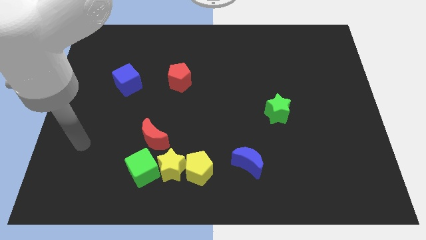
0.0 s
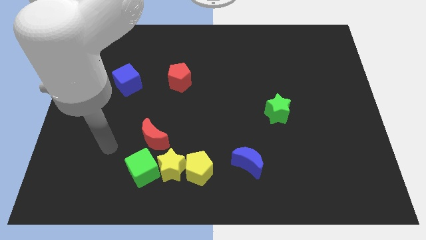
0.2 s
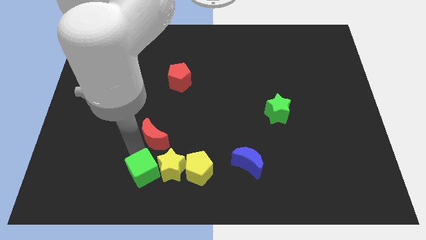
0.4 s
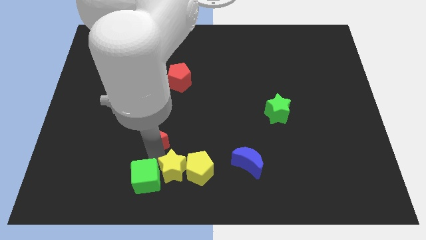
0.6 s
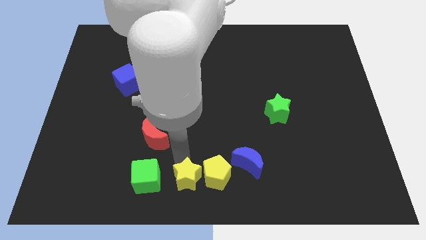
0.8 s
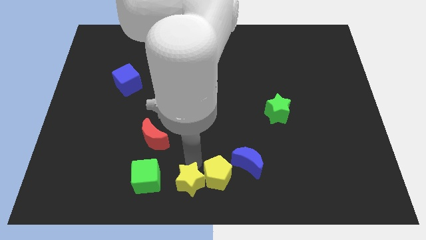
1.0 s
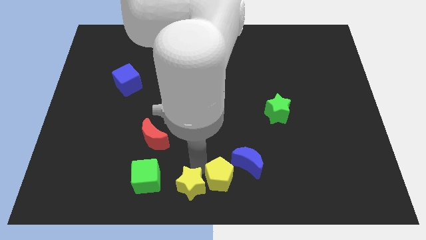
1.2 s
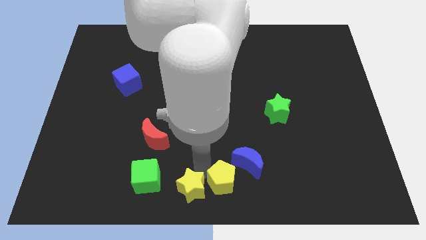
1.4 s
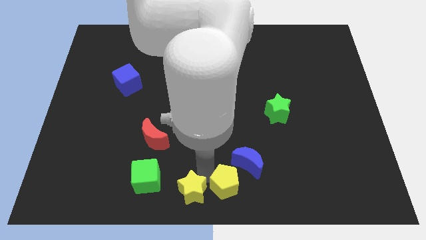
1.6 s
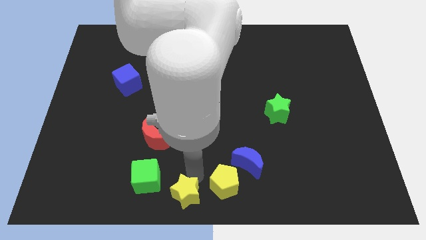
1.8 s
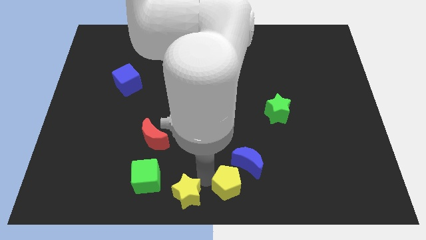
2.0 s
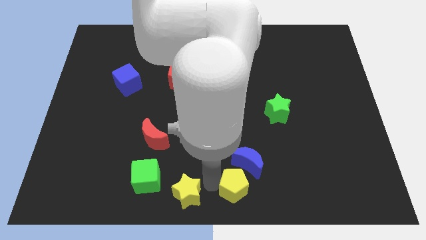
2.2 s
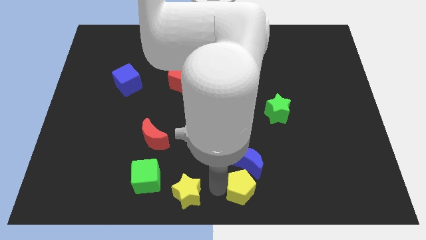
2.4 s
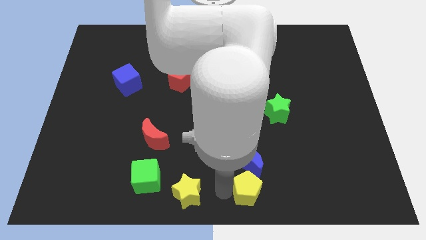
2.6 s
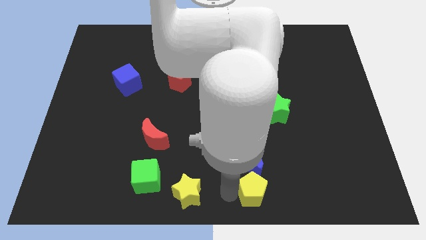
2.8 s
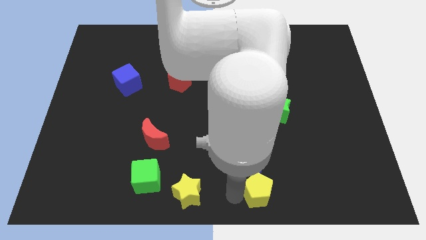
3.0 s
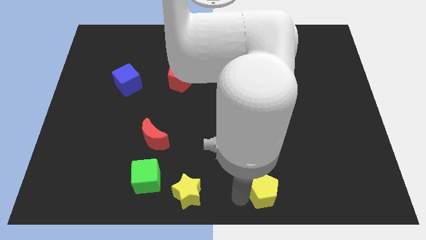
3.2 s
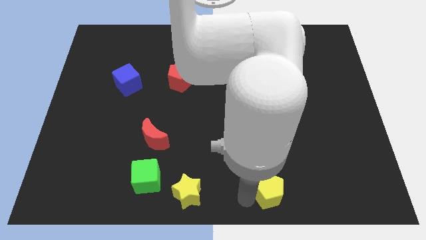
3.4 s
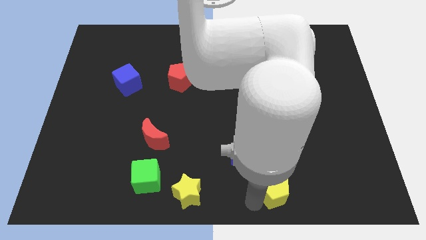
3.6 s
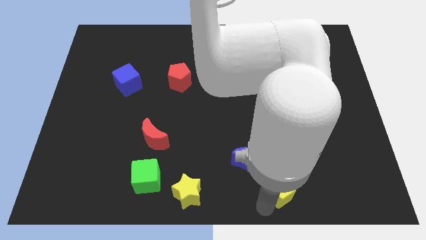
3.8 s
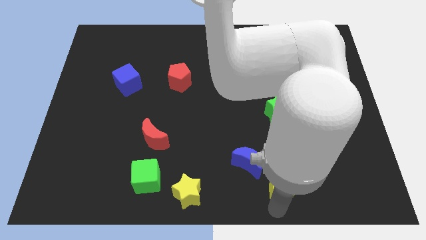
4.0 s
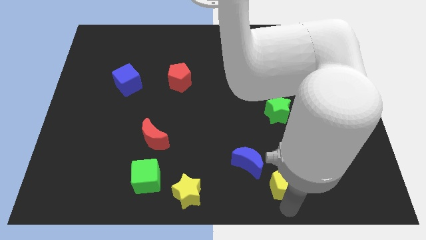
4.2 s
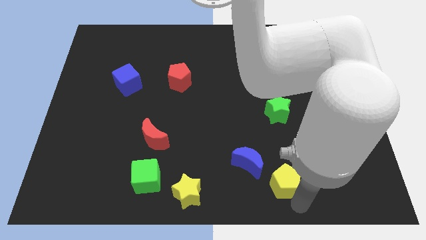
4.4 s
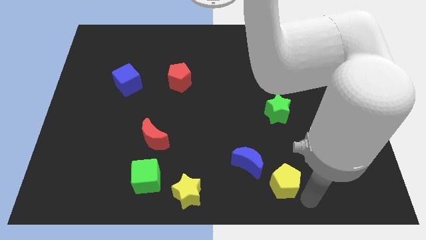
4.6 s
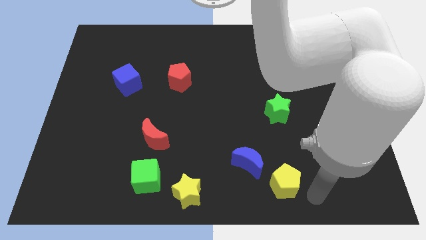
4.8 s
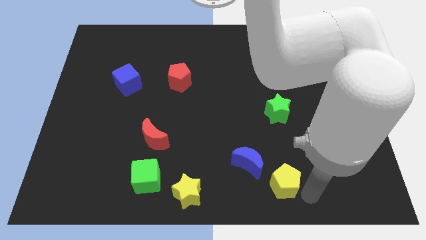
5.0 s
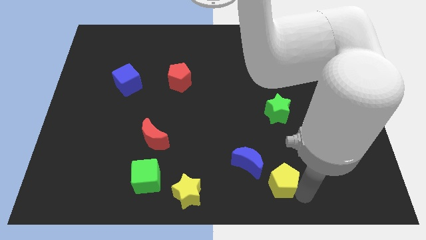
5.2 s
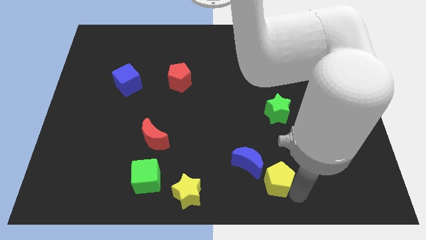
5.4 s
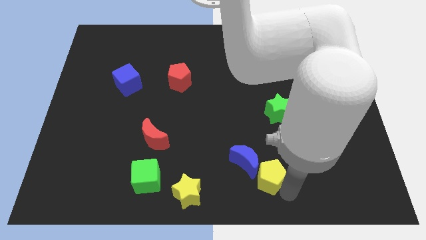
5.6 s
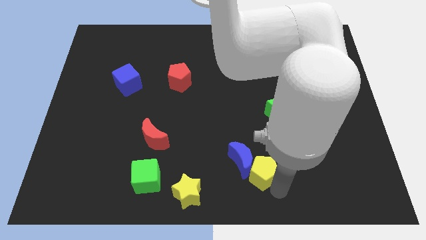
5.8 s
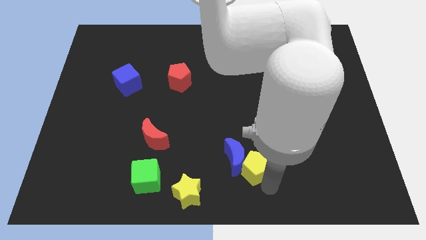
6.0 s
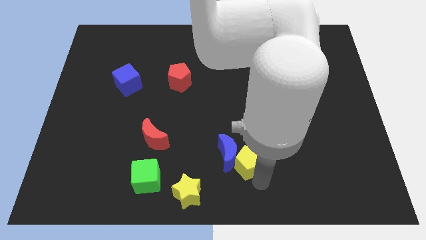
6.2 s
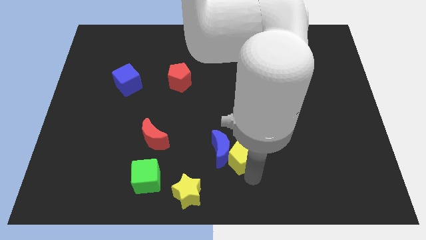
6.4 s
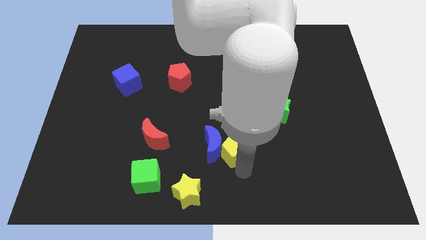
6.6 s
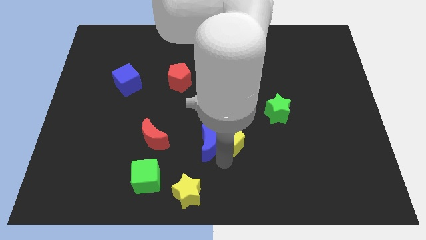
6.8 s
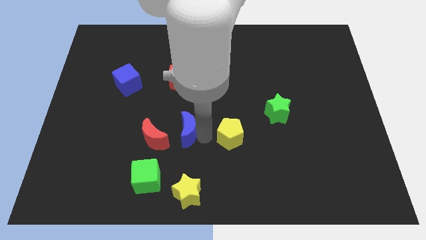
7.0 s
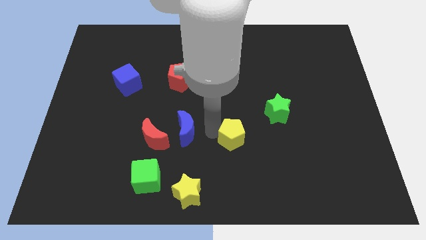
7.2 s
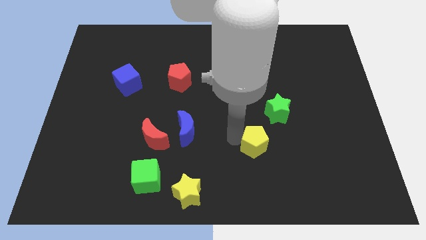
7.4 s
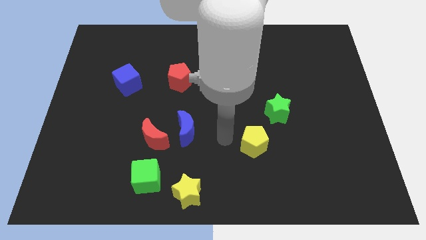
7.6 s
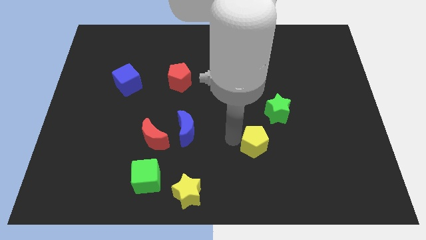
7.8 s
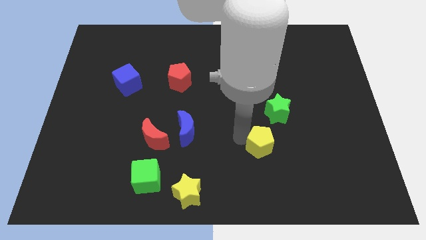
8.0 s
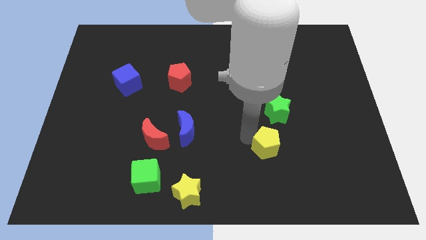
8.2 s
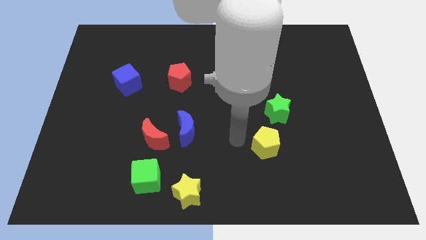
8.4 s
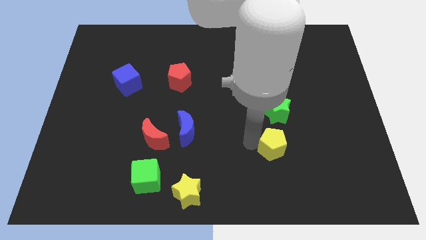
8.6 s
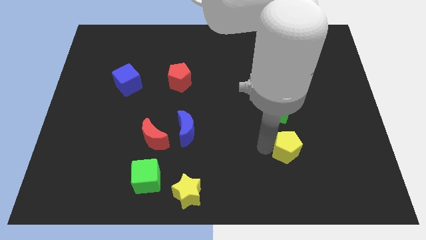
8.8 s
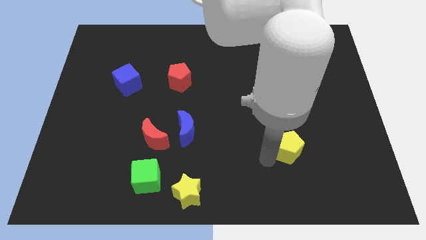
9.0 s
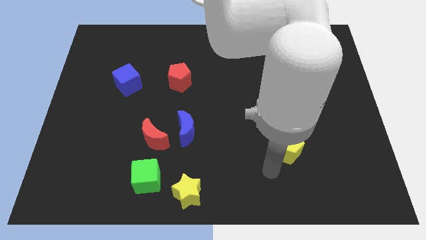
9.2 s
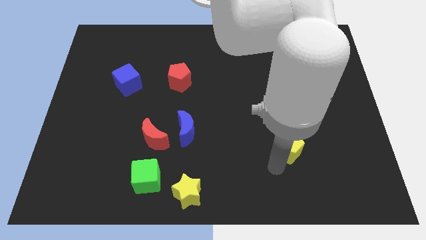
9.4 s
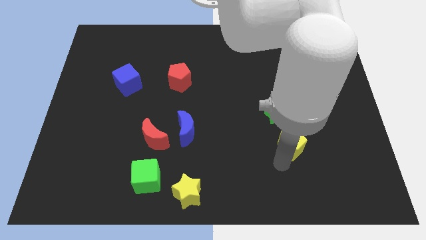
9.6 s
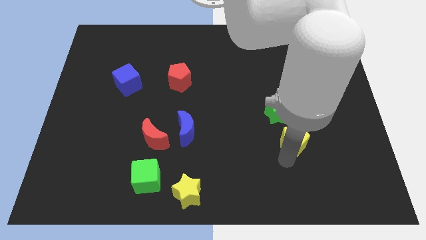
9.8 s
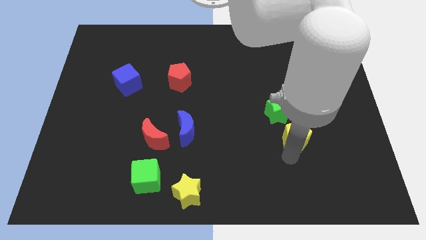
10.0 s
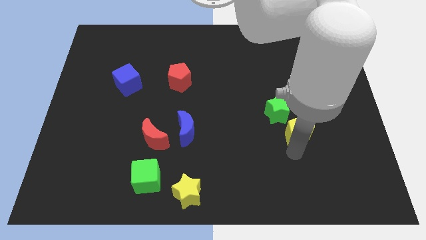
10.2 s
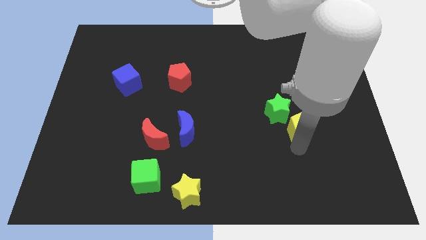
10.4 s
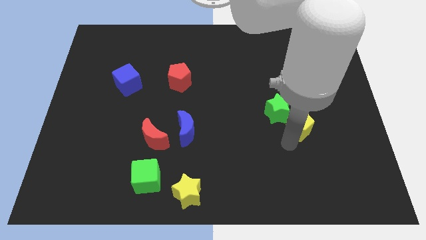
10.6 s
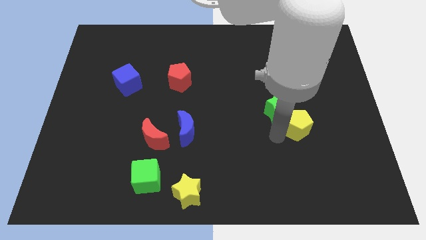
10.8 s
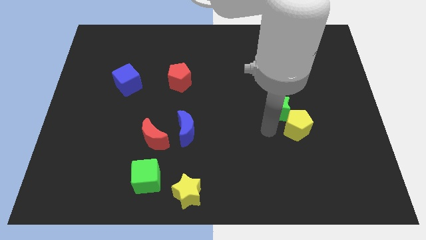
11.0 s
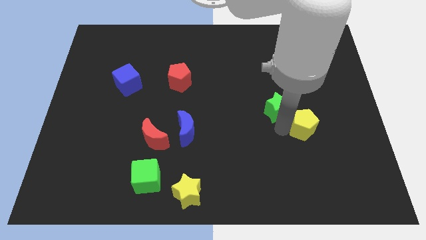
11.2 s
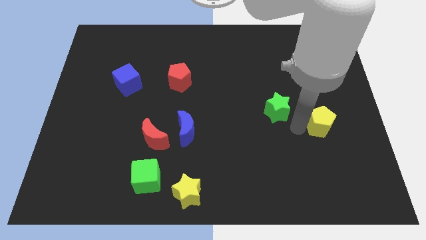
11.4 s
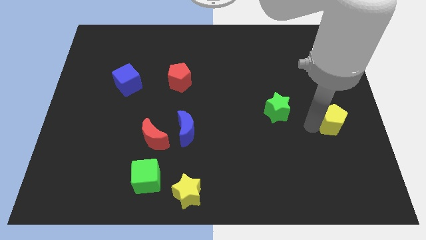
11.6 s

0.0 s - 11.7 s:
push the yellow pentagon to the right side

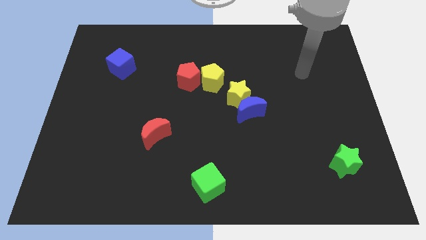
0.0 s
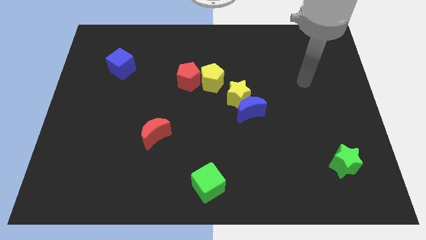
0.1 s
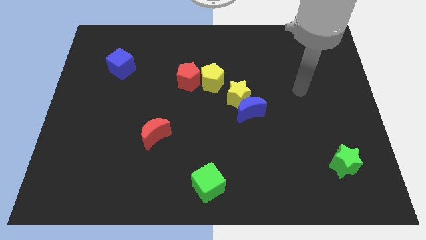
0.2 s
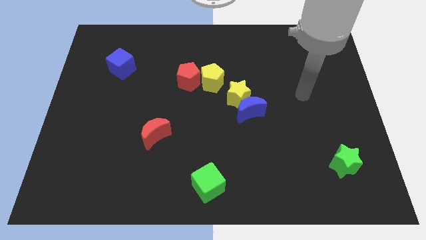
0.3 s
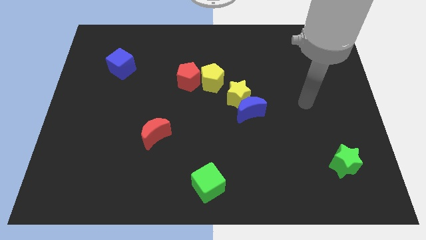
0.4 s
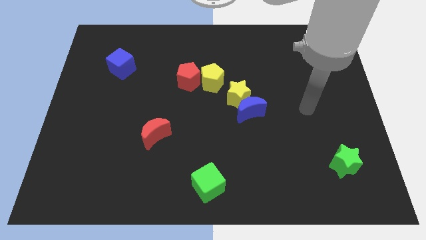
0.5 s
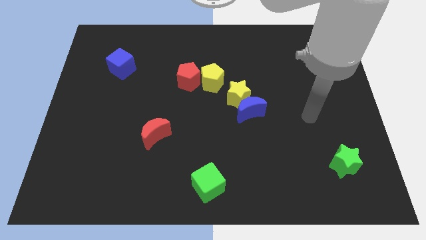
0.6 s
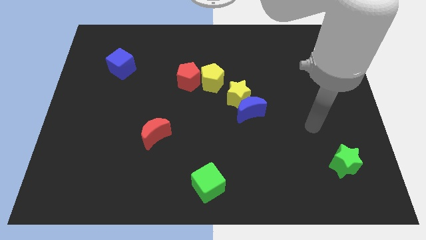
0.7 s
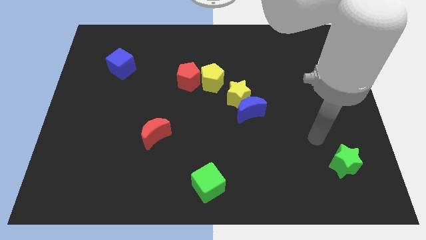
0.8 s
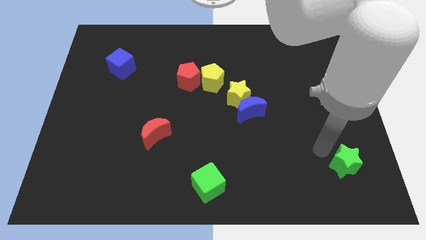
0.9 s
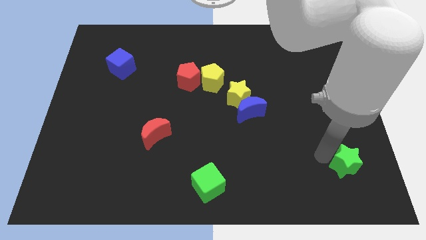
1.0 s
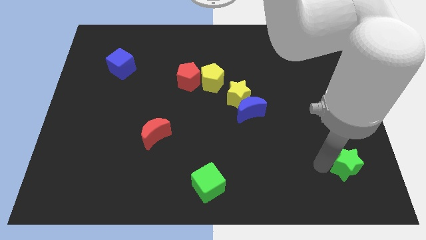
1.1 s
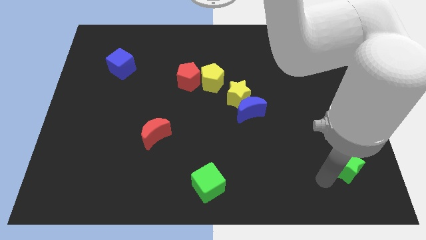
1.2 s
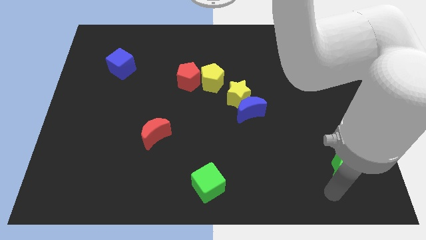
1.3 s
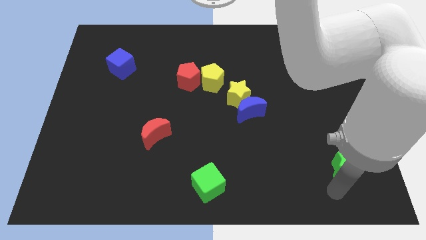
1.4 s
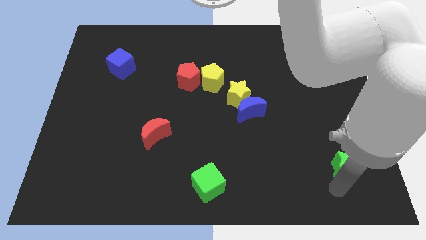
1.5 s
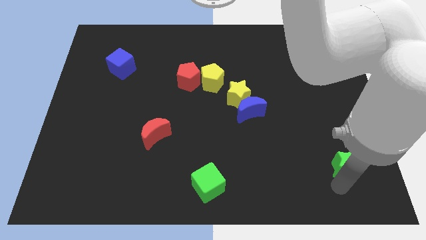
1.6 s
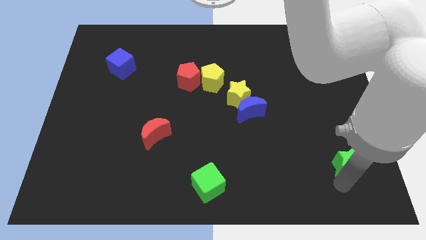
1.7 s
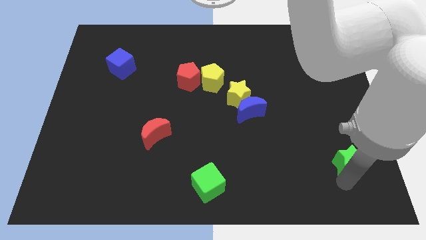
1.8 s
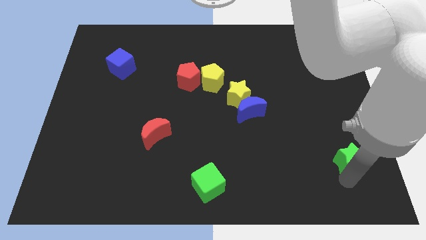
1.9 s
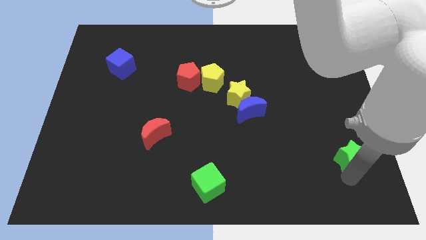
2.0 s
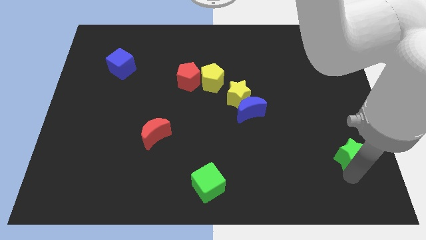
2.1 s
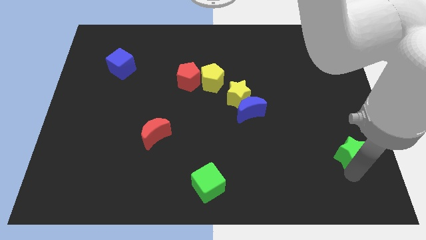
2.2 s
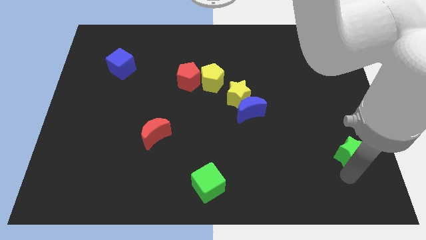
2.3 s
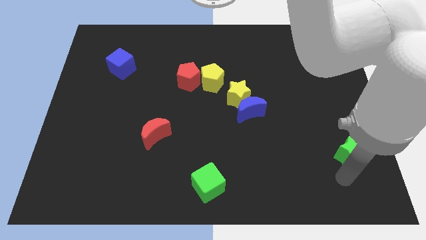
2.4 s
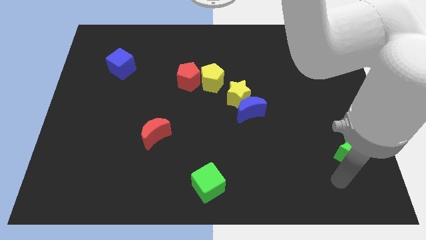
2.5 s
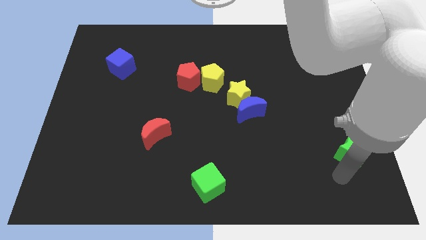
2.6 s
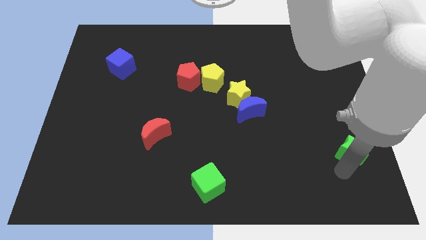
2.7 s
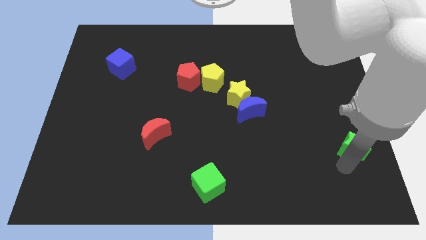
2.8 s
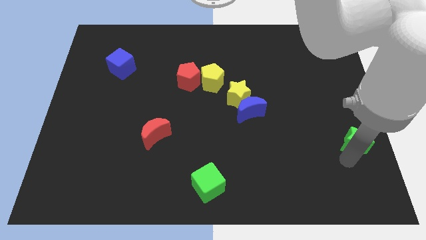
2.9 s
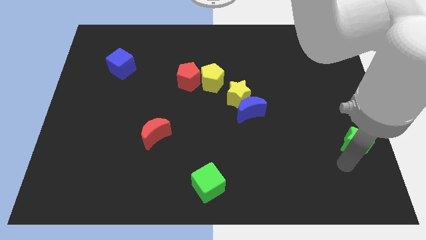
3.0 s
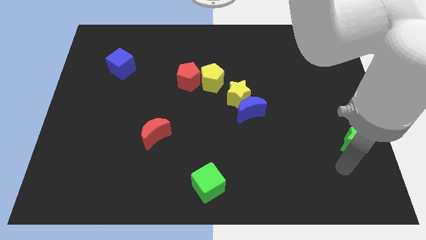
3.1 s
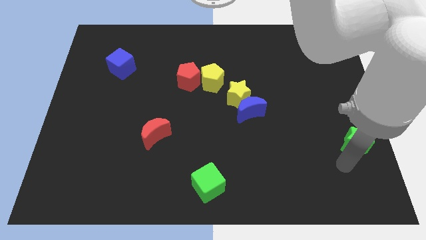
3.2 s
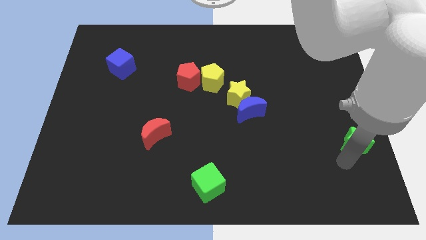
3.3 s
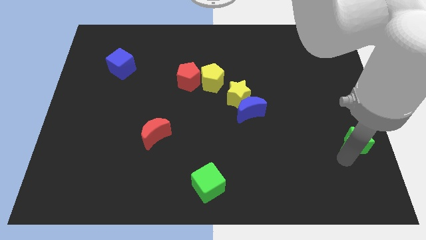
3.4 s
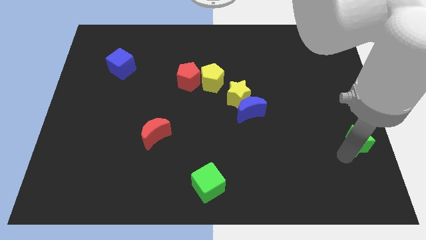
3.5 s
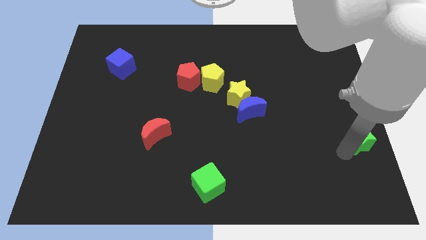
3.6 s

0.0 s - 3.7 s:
move the green star to the center right
